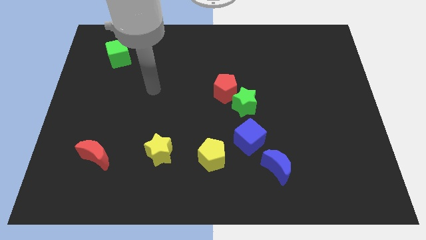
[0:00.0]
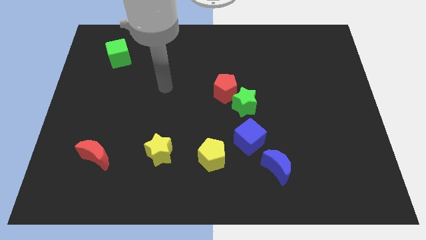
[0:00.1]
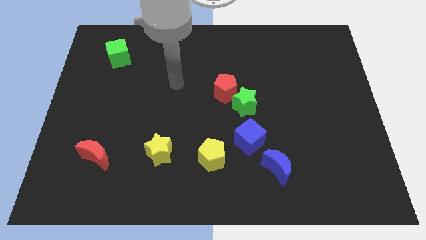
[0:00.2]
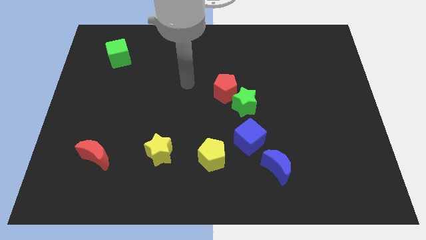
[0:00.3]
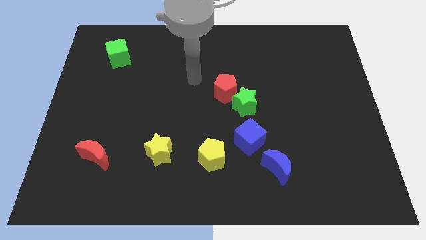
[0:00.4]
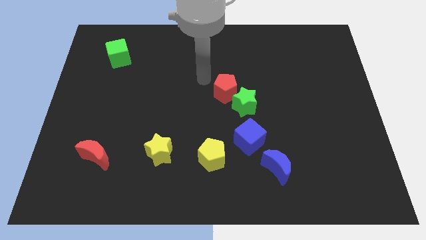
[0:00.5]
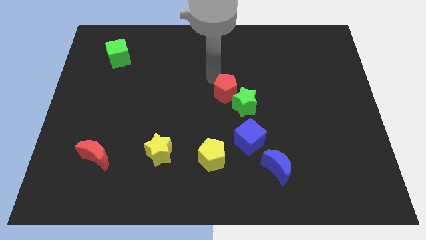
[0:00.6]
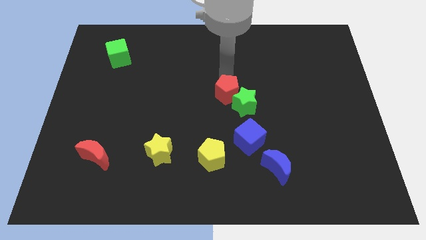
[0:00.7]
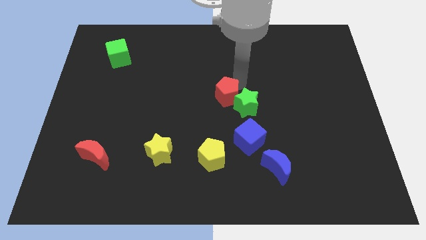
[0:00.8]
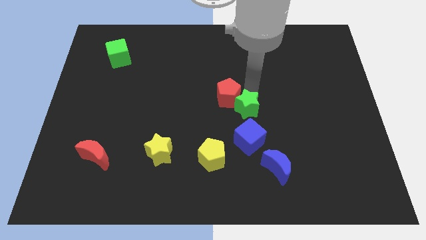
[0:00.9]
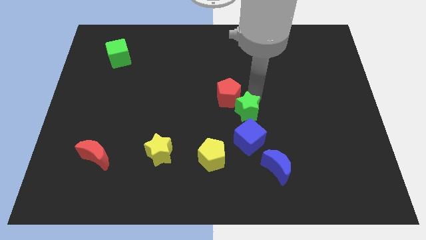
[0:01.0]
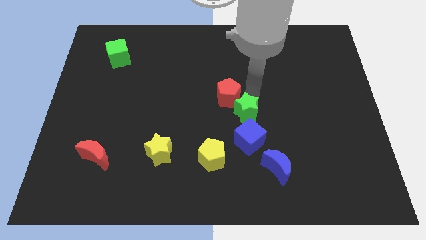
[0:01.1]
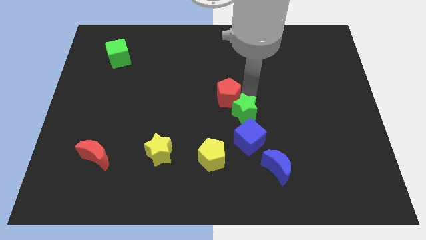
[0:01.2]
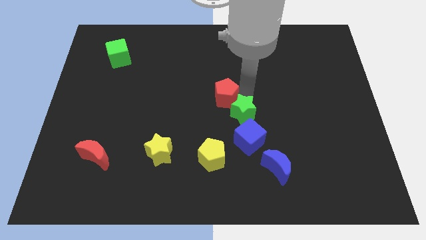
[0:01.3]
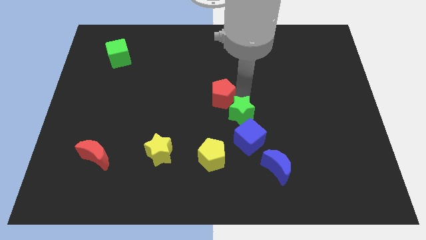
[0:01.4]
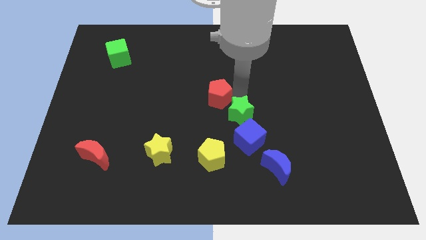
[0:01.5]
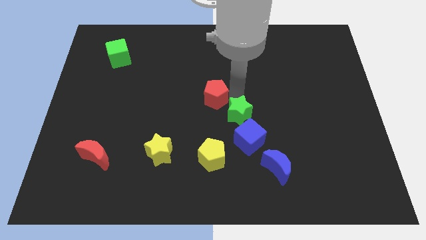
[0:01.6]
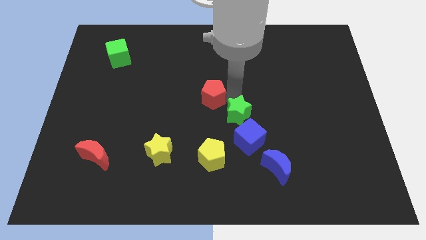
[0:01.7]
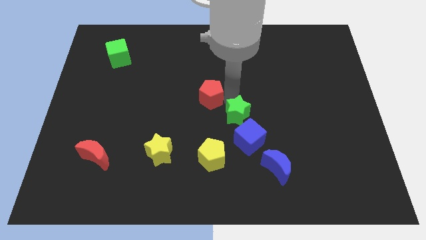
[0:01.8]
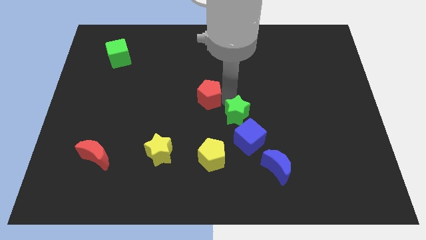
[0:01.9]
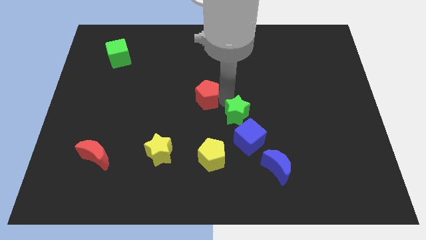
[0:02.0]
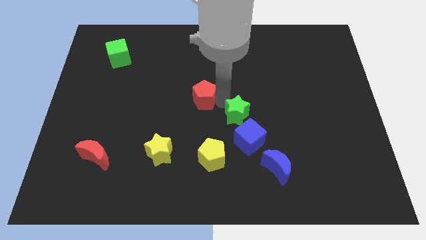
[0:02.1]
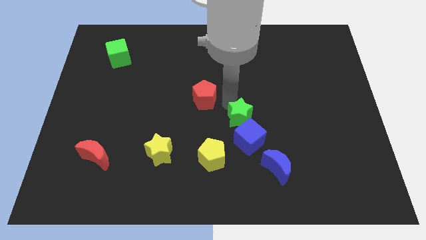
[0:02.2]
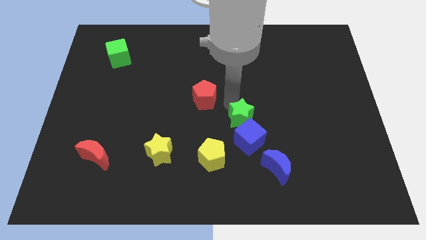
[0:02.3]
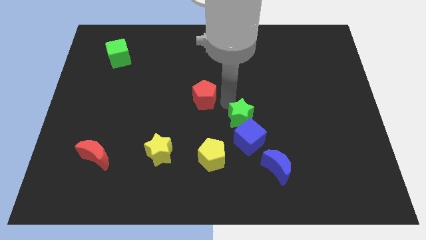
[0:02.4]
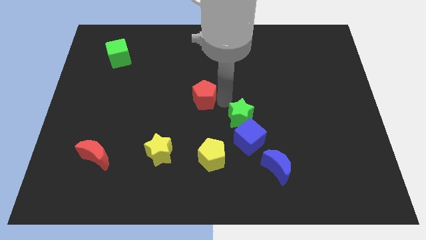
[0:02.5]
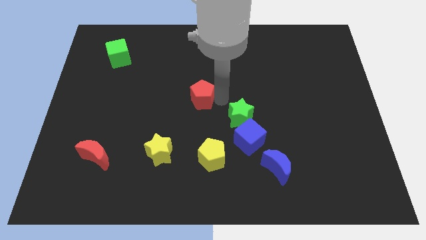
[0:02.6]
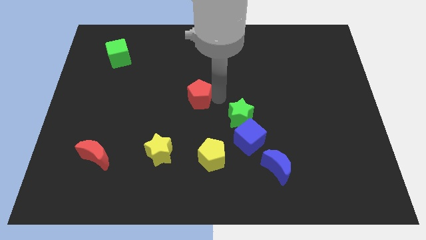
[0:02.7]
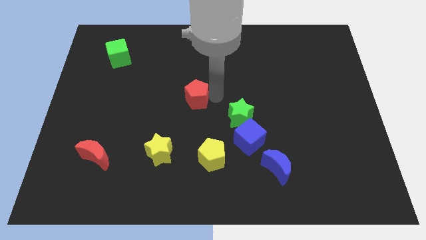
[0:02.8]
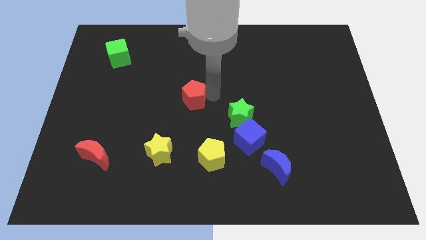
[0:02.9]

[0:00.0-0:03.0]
push the red pentagon to the left a little bit

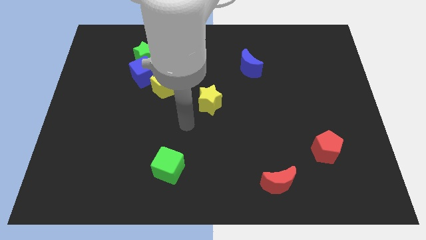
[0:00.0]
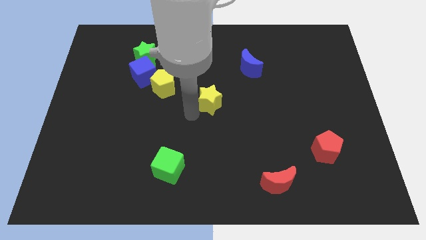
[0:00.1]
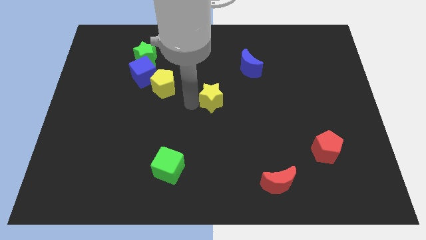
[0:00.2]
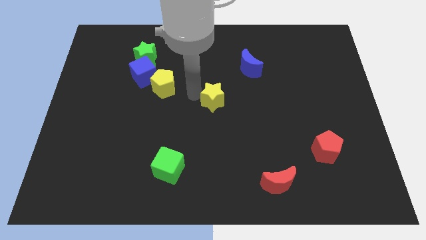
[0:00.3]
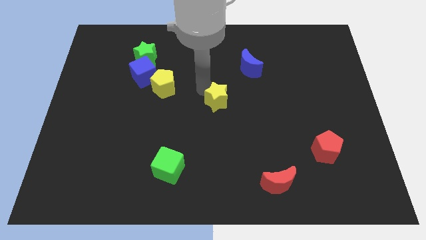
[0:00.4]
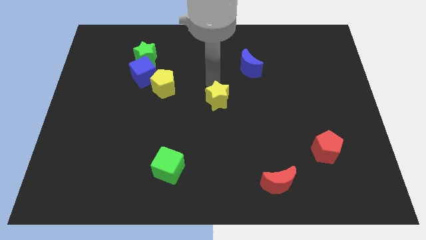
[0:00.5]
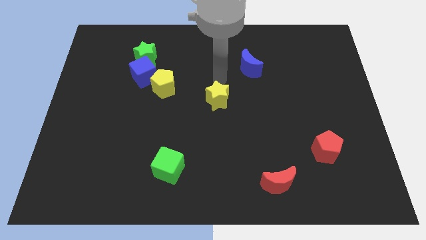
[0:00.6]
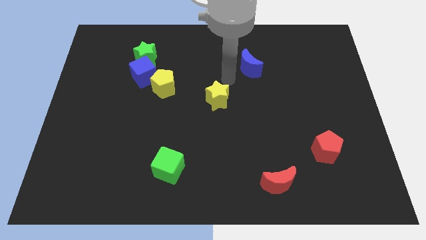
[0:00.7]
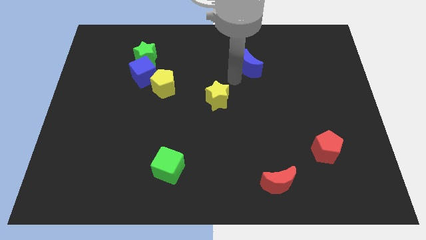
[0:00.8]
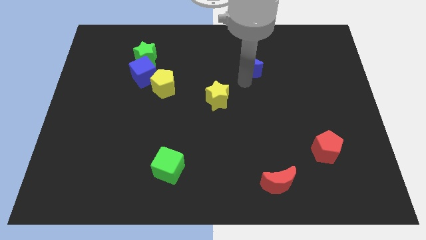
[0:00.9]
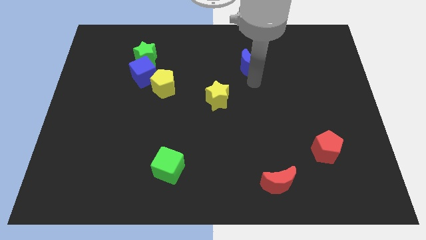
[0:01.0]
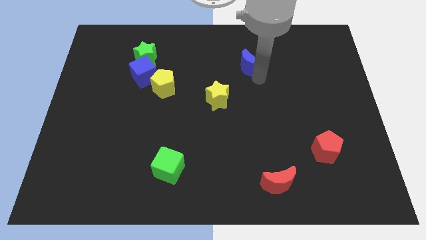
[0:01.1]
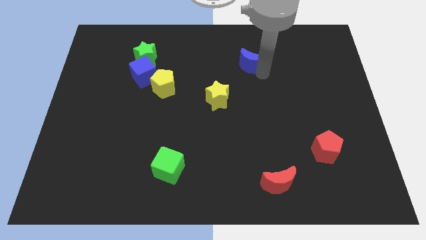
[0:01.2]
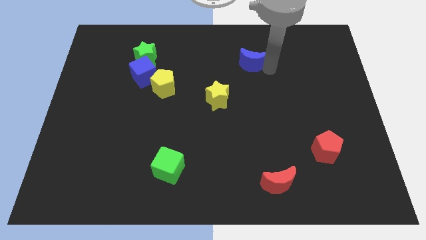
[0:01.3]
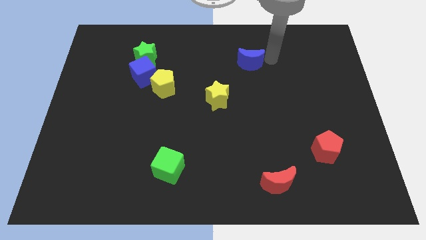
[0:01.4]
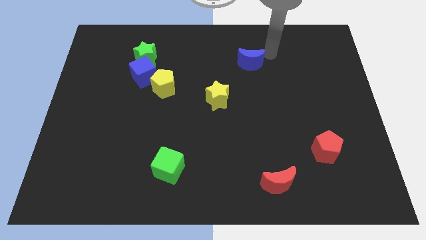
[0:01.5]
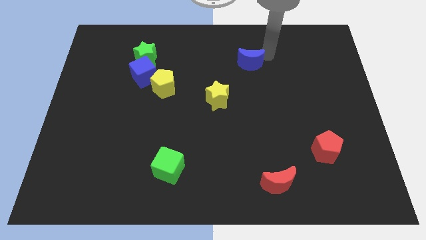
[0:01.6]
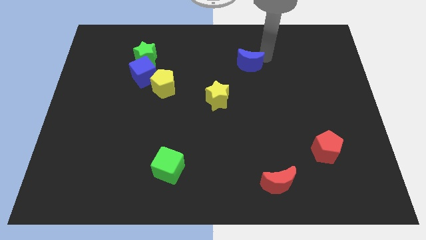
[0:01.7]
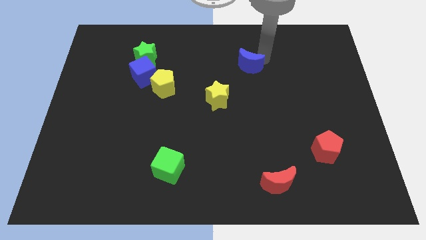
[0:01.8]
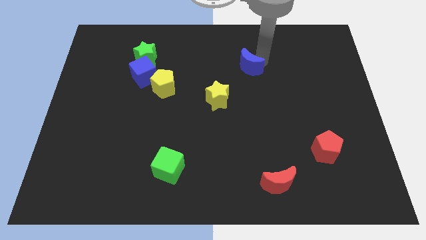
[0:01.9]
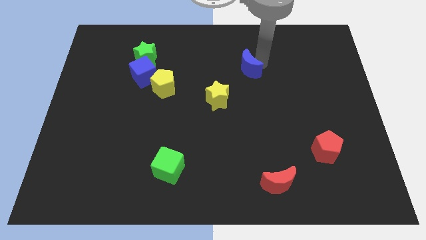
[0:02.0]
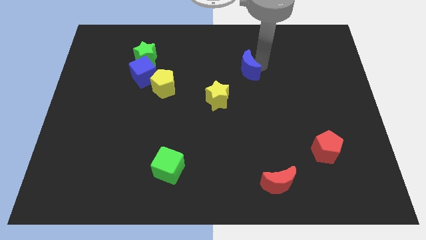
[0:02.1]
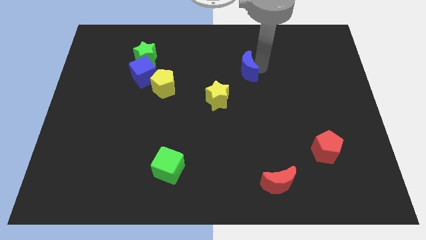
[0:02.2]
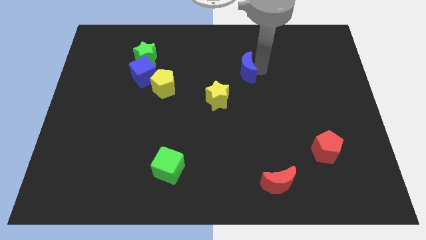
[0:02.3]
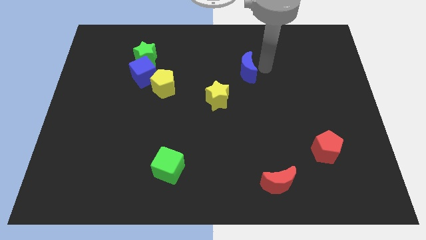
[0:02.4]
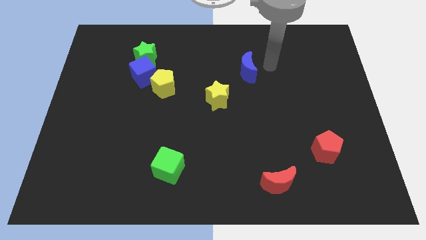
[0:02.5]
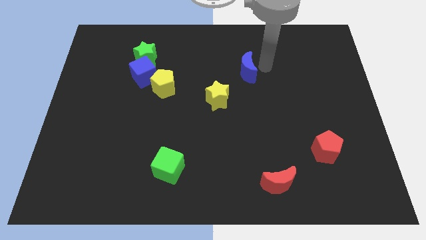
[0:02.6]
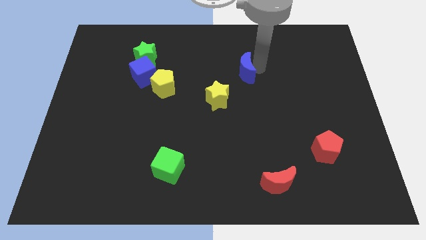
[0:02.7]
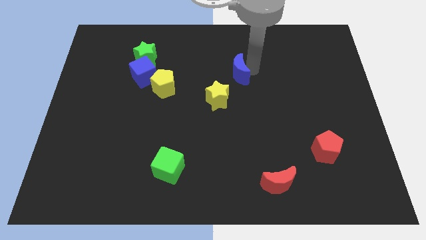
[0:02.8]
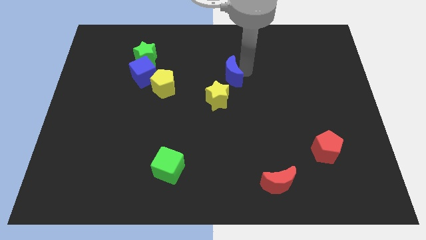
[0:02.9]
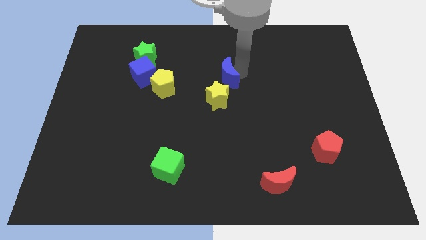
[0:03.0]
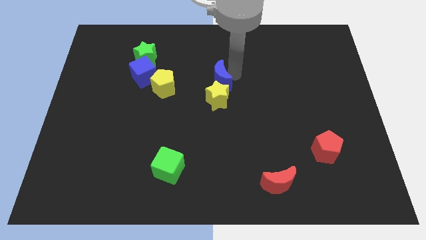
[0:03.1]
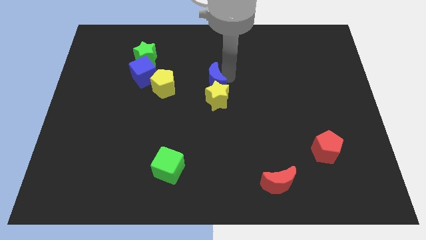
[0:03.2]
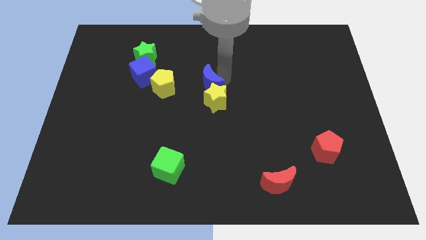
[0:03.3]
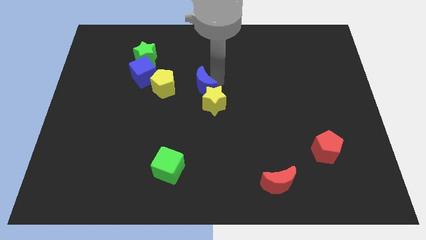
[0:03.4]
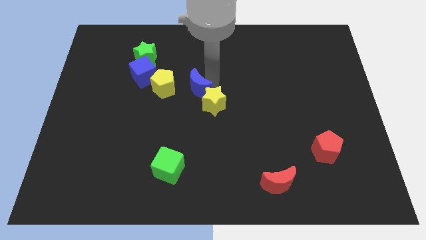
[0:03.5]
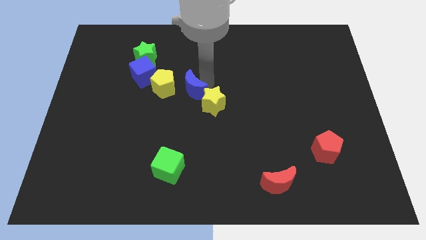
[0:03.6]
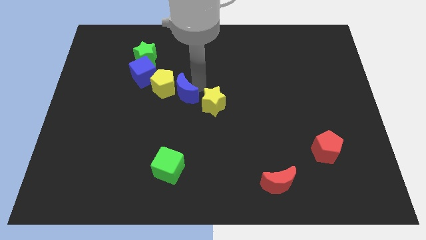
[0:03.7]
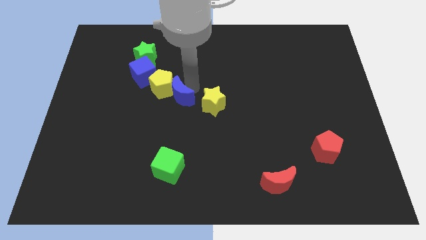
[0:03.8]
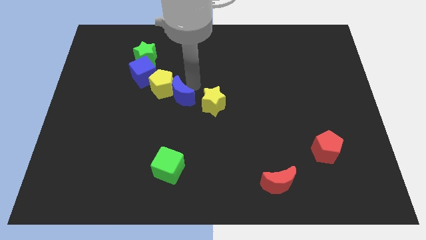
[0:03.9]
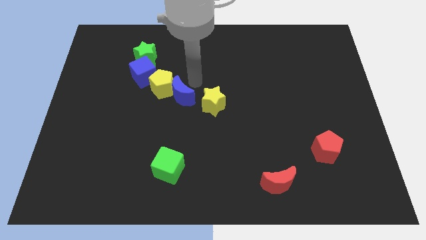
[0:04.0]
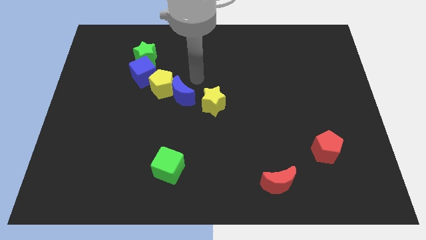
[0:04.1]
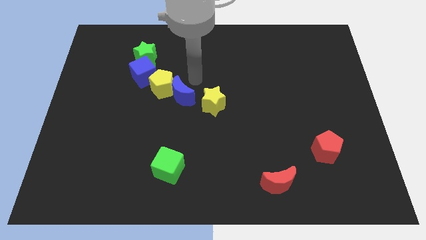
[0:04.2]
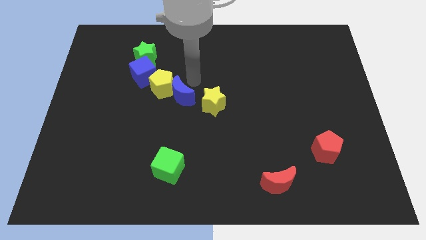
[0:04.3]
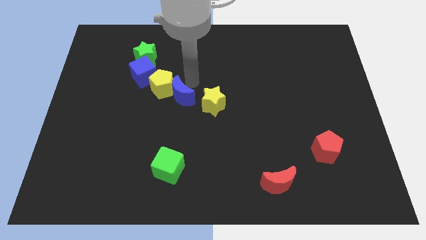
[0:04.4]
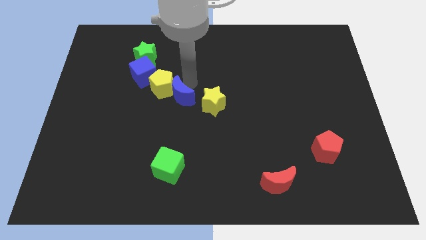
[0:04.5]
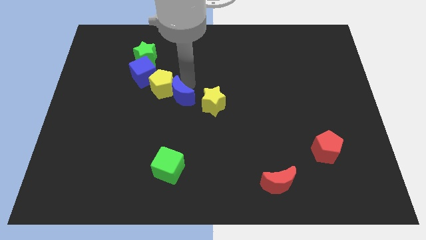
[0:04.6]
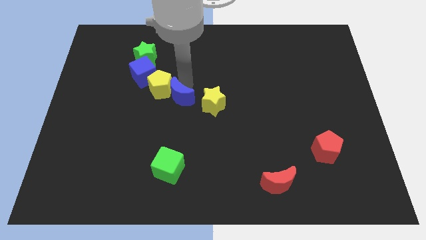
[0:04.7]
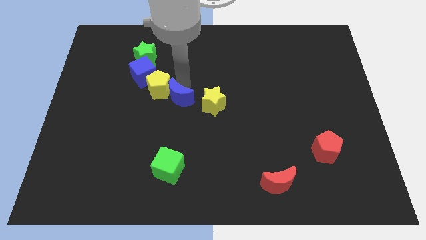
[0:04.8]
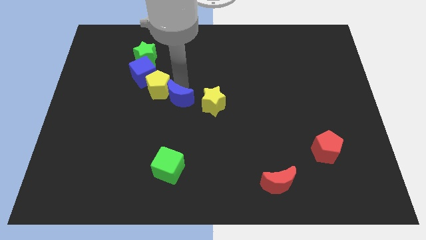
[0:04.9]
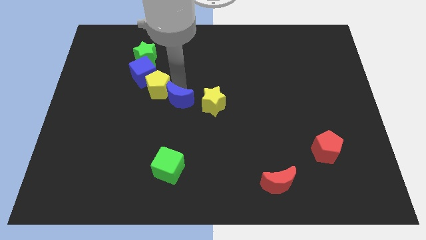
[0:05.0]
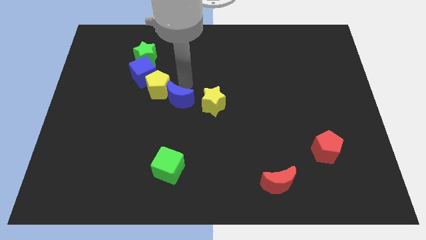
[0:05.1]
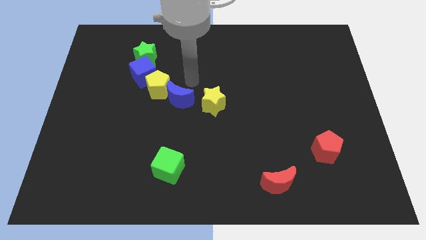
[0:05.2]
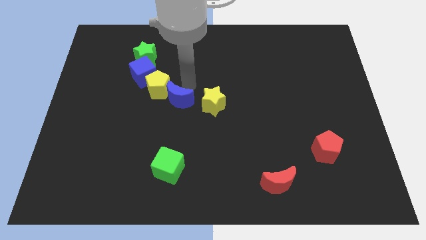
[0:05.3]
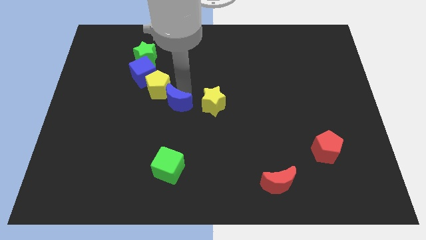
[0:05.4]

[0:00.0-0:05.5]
slide the blue moon downwards and then to the left
